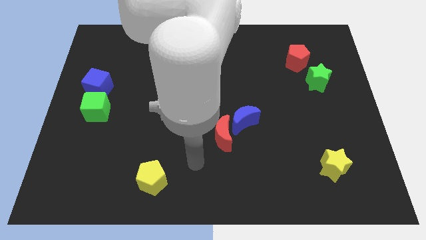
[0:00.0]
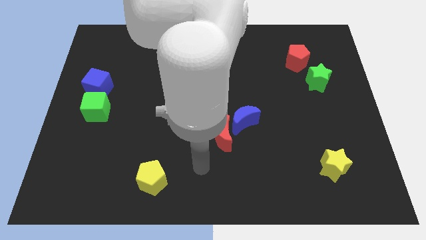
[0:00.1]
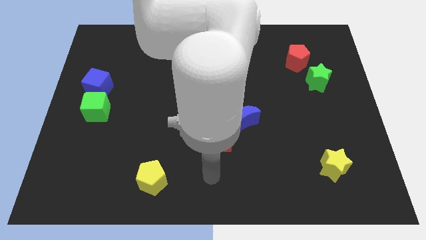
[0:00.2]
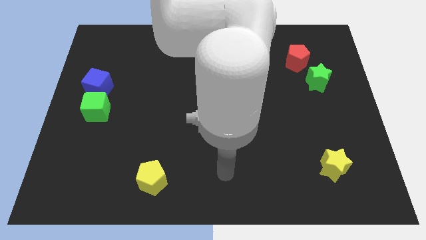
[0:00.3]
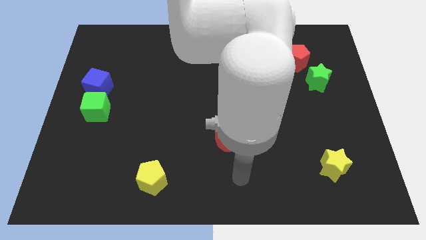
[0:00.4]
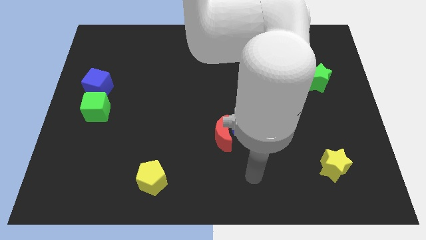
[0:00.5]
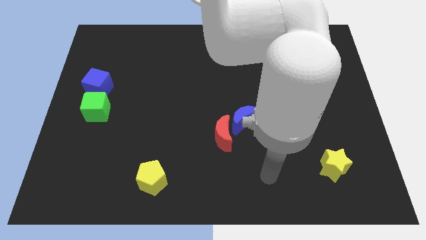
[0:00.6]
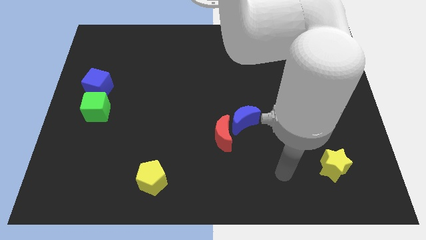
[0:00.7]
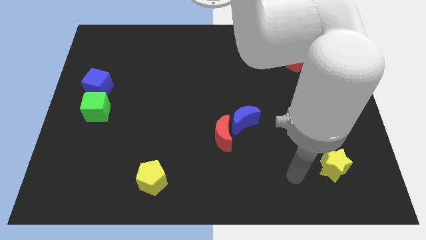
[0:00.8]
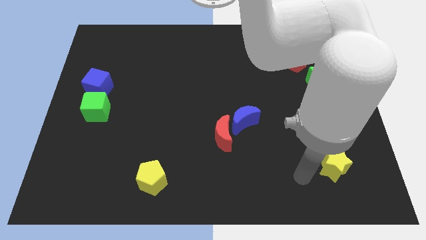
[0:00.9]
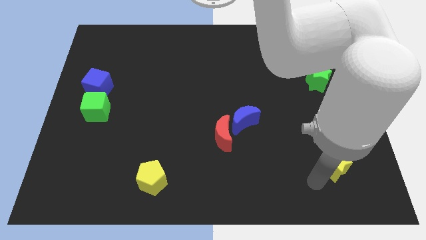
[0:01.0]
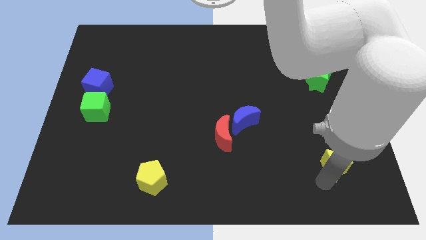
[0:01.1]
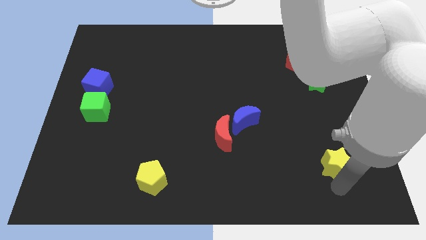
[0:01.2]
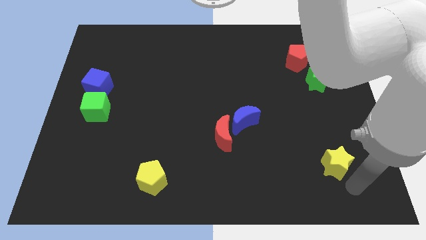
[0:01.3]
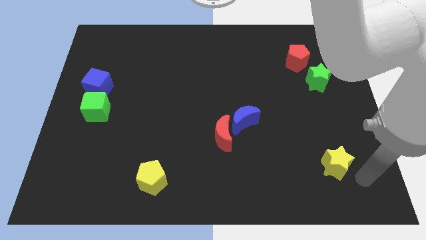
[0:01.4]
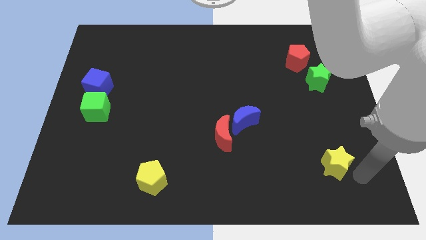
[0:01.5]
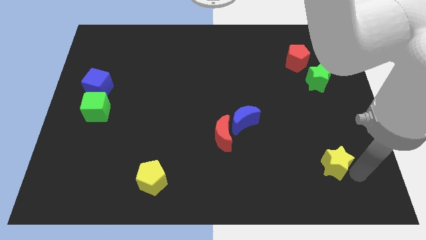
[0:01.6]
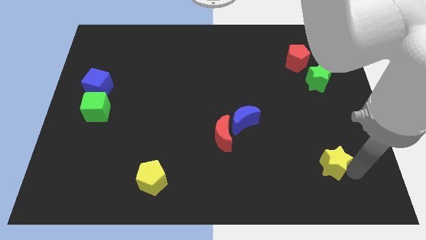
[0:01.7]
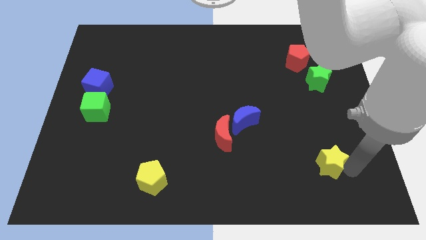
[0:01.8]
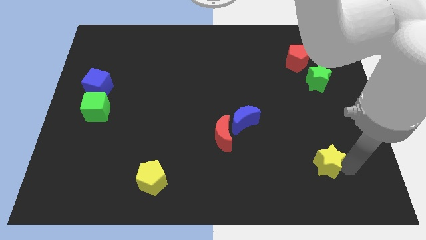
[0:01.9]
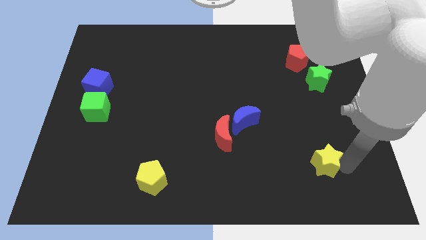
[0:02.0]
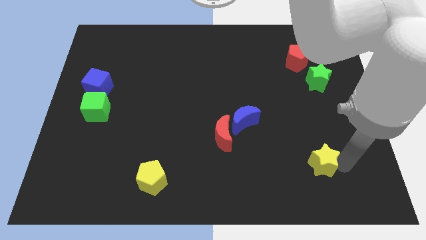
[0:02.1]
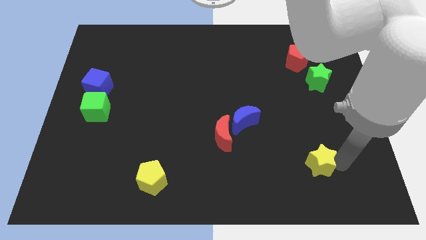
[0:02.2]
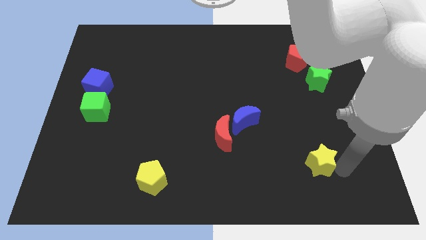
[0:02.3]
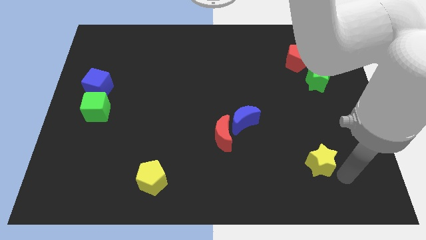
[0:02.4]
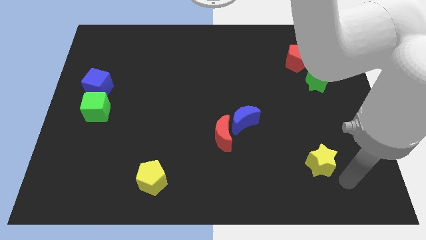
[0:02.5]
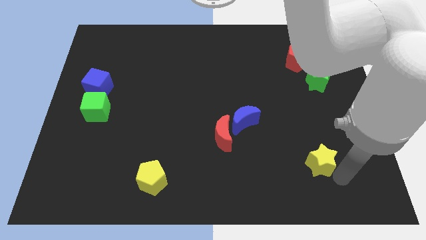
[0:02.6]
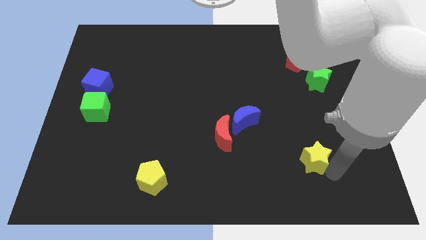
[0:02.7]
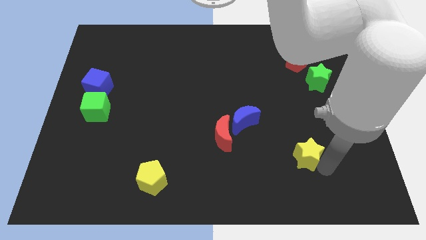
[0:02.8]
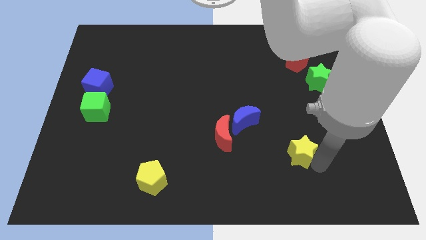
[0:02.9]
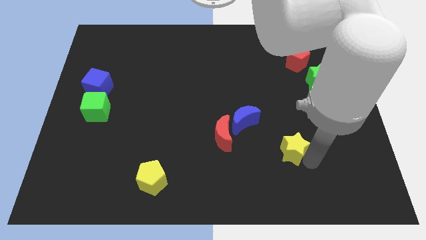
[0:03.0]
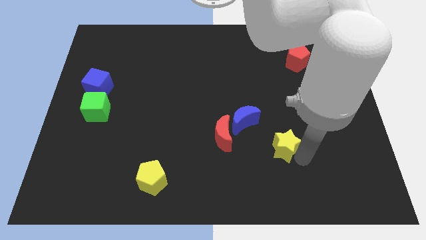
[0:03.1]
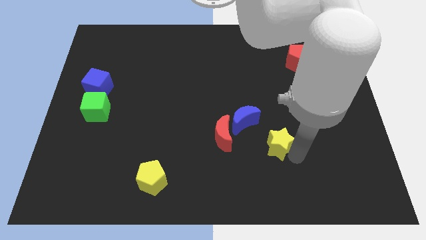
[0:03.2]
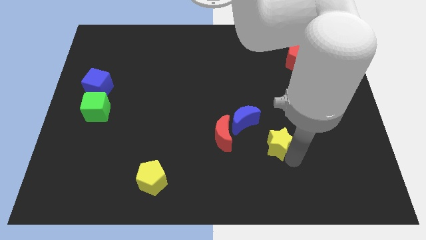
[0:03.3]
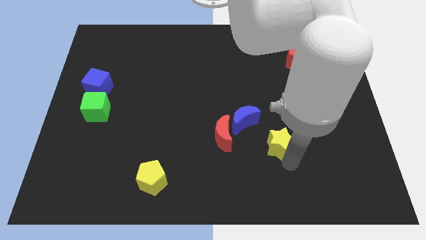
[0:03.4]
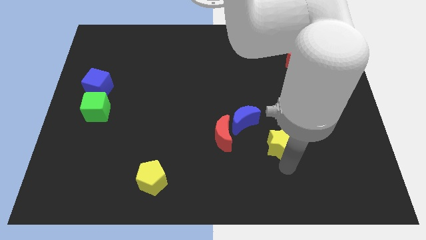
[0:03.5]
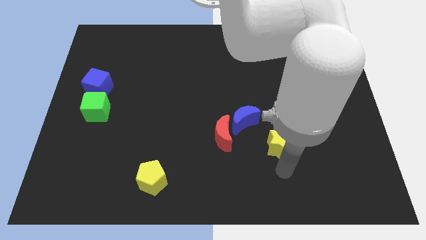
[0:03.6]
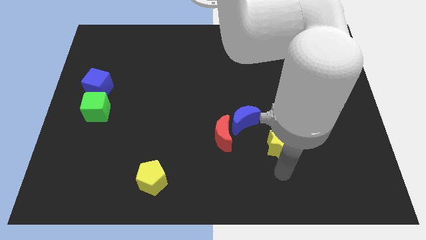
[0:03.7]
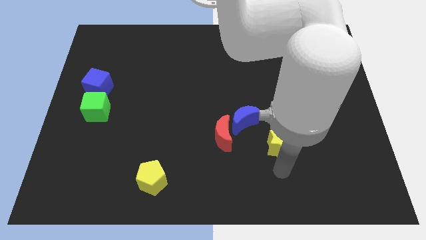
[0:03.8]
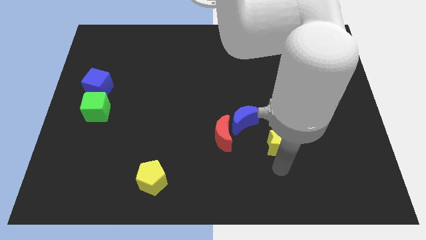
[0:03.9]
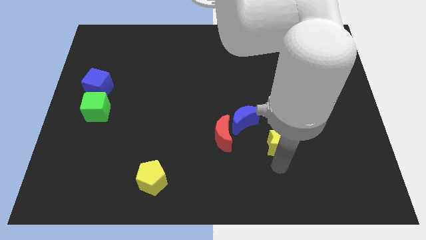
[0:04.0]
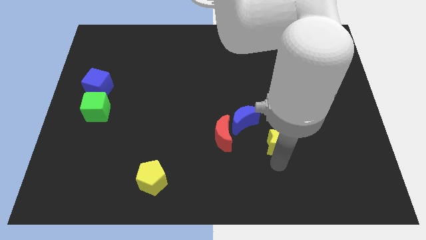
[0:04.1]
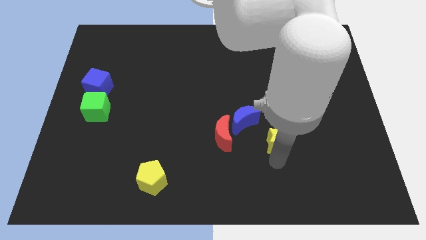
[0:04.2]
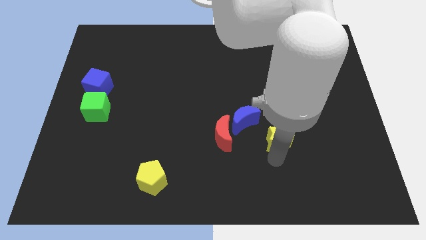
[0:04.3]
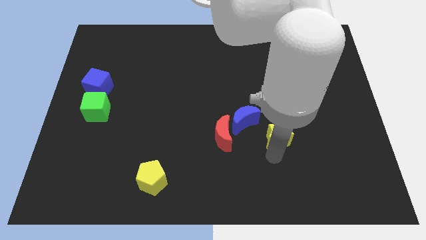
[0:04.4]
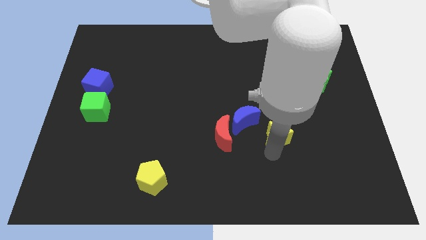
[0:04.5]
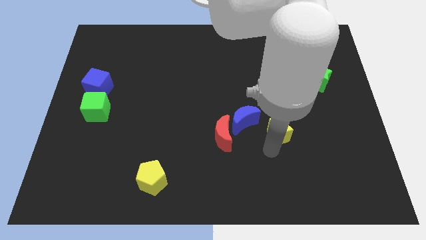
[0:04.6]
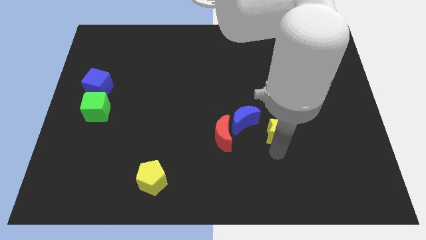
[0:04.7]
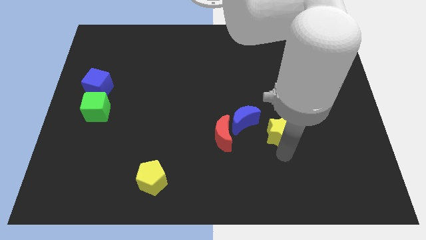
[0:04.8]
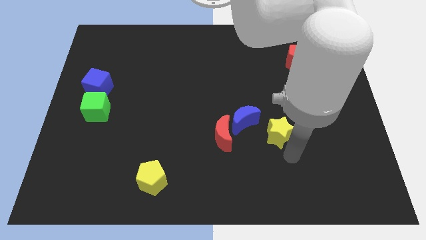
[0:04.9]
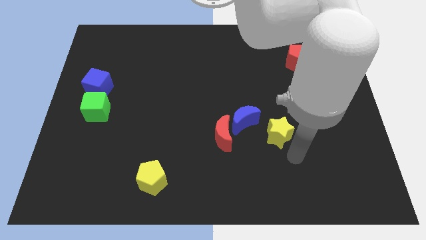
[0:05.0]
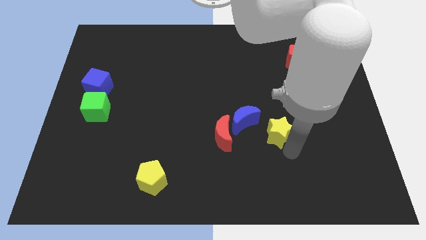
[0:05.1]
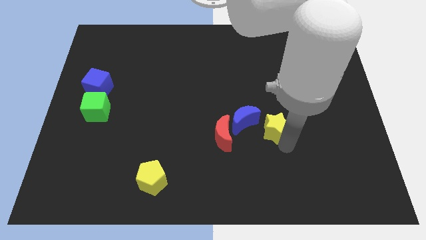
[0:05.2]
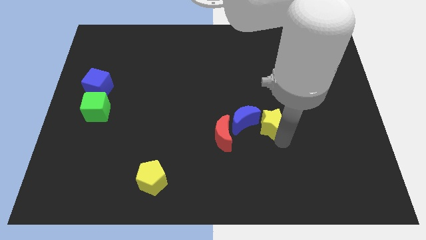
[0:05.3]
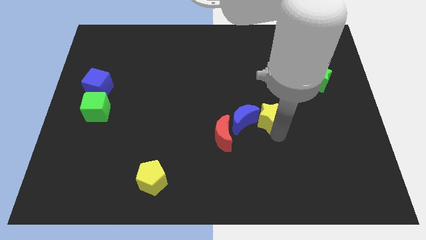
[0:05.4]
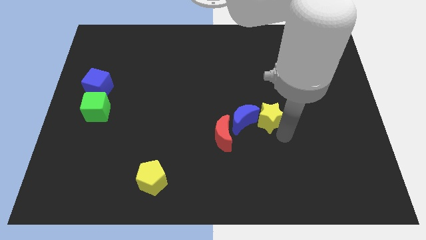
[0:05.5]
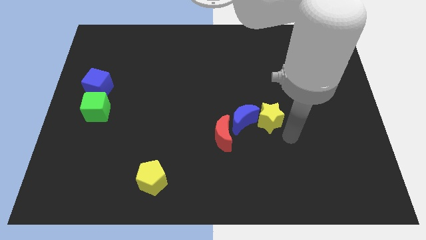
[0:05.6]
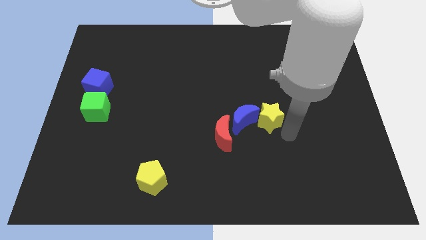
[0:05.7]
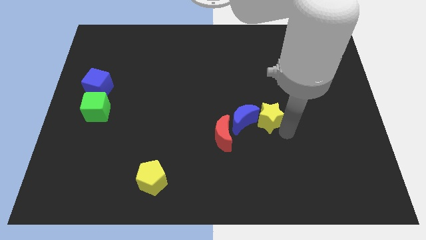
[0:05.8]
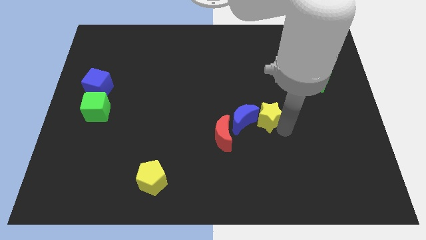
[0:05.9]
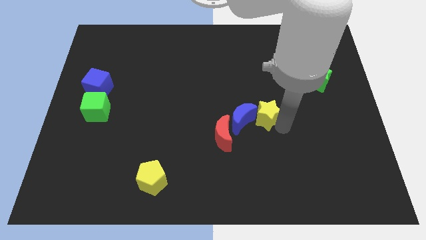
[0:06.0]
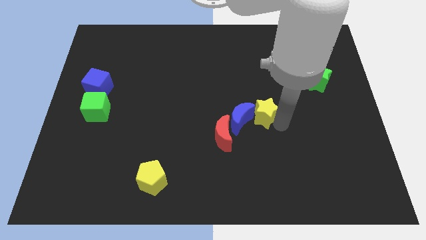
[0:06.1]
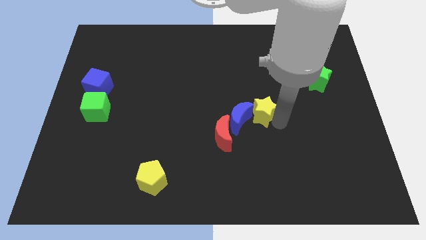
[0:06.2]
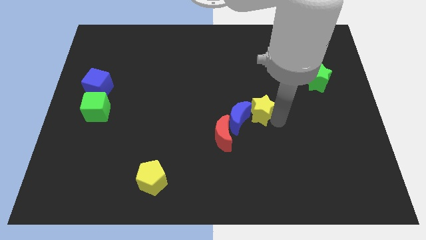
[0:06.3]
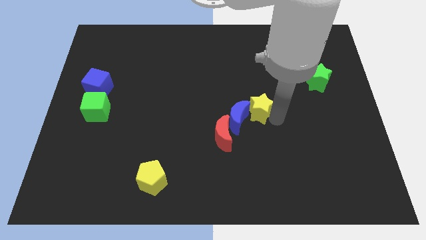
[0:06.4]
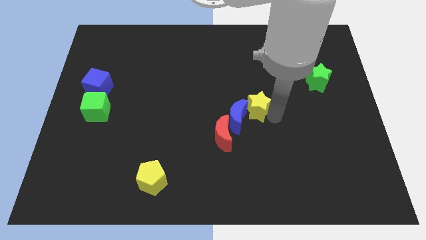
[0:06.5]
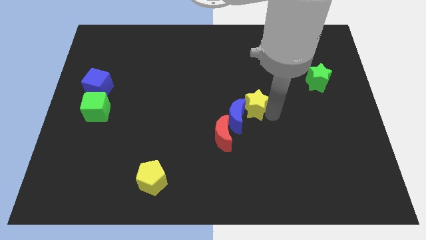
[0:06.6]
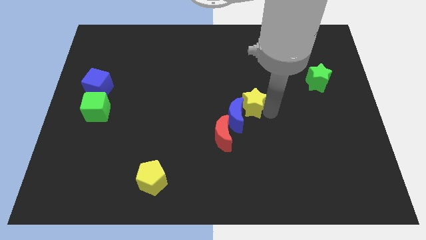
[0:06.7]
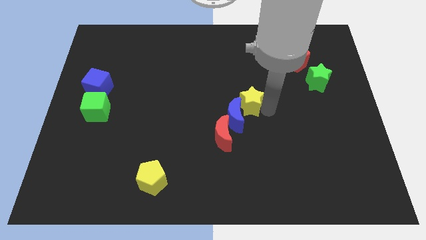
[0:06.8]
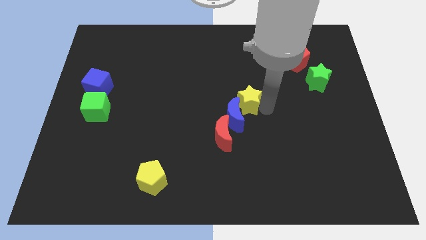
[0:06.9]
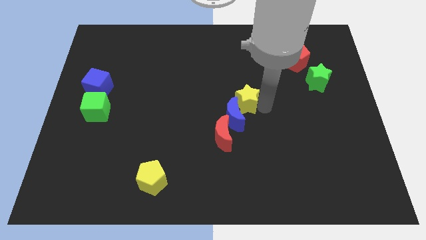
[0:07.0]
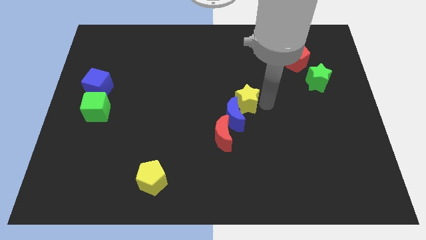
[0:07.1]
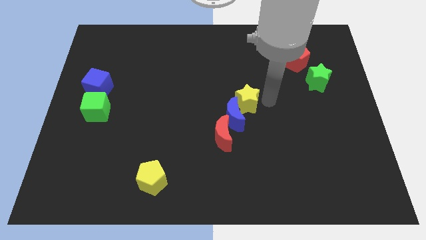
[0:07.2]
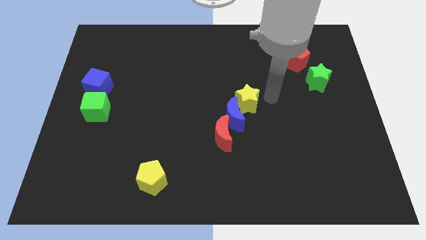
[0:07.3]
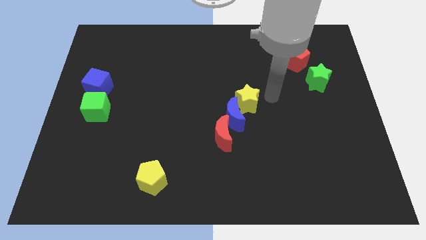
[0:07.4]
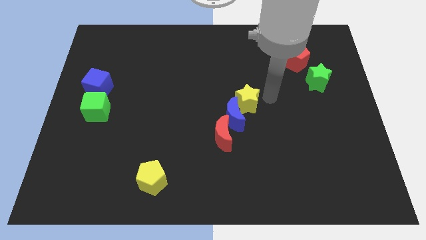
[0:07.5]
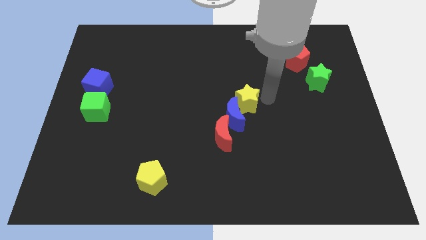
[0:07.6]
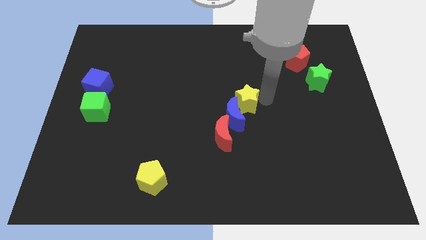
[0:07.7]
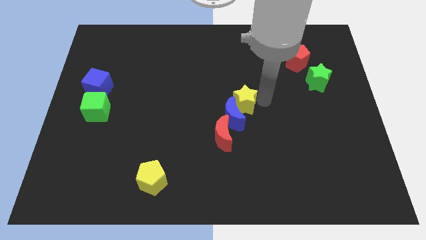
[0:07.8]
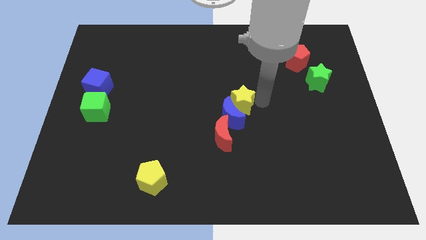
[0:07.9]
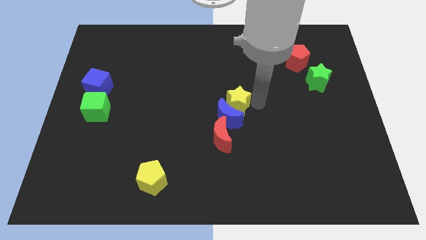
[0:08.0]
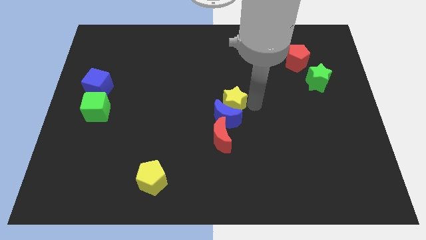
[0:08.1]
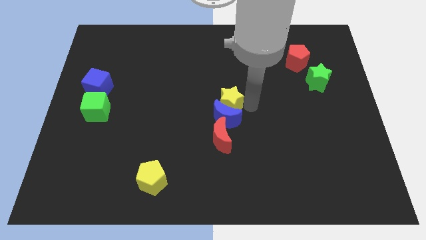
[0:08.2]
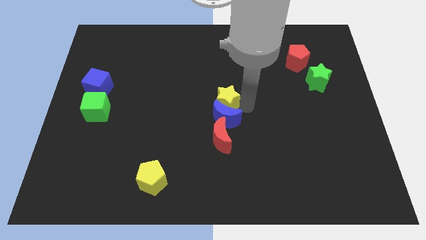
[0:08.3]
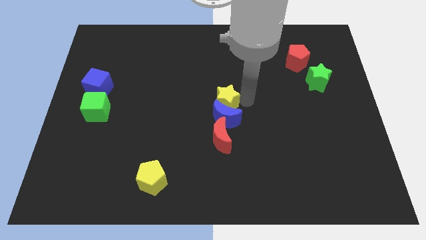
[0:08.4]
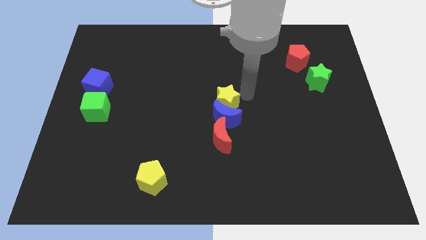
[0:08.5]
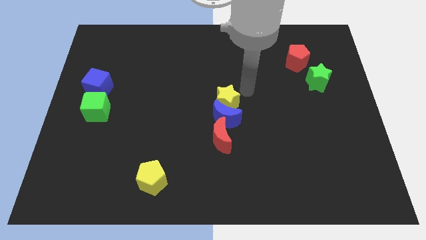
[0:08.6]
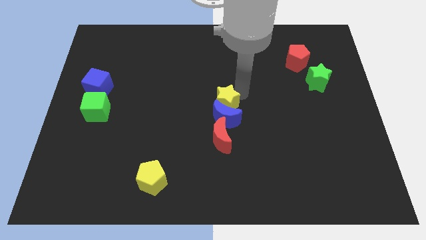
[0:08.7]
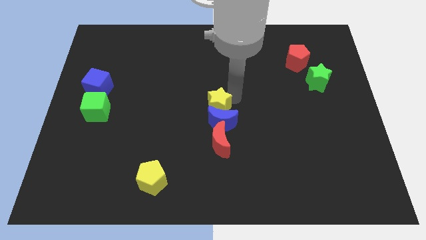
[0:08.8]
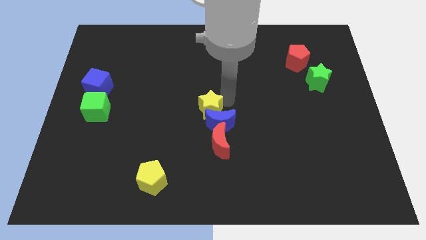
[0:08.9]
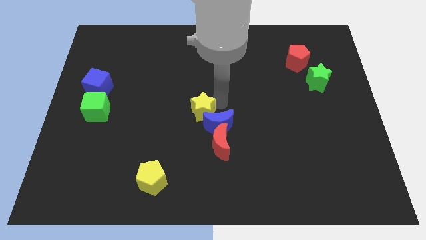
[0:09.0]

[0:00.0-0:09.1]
push the yellow star diagonally up and to the left of the red moon
